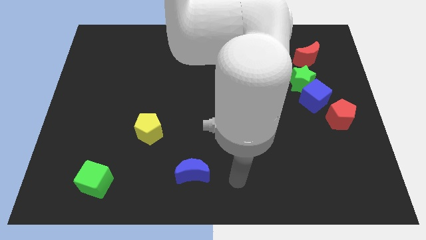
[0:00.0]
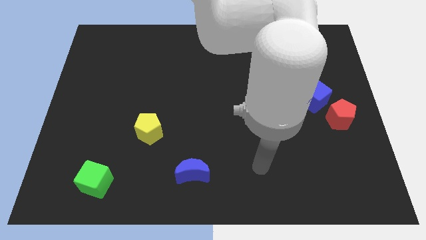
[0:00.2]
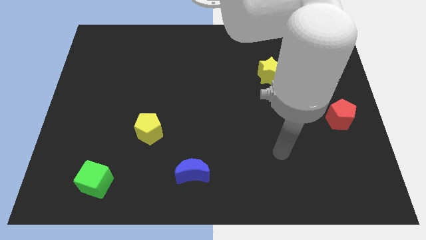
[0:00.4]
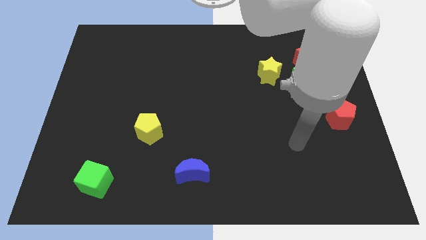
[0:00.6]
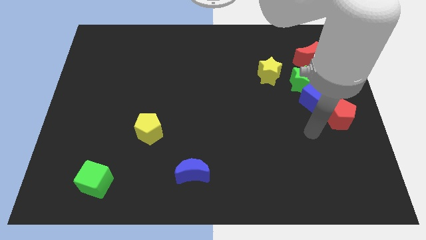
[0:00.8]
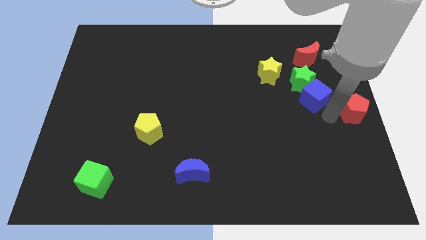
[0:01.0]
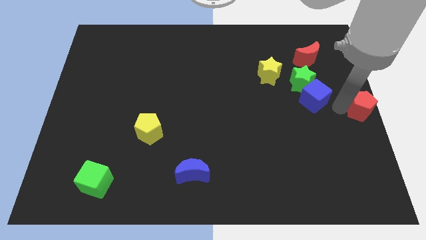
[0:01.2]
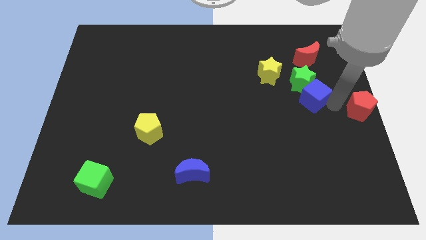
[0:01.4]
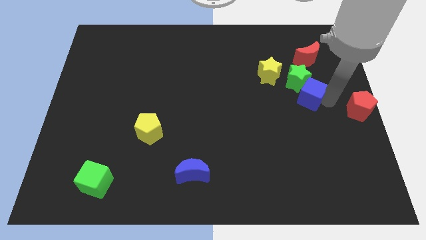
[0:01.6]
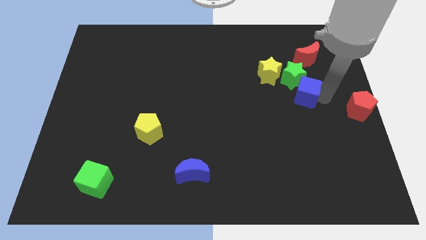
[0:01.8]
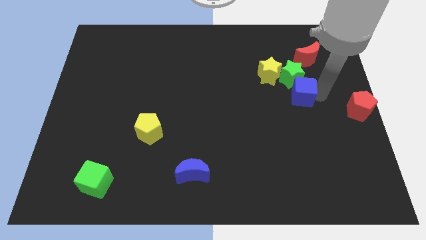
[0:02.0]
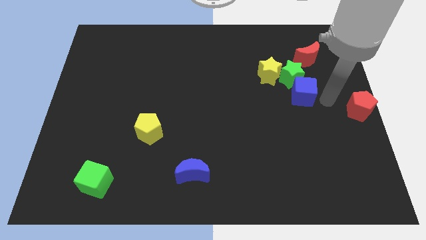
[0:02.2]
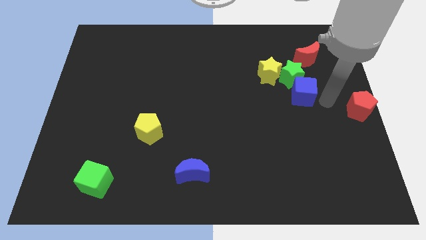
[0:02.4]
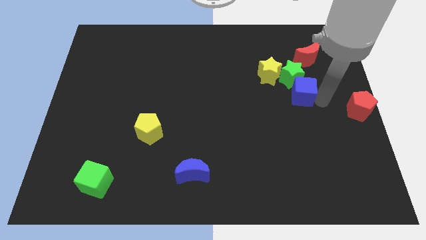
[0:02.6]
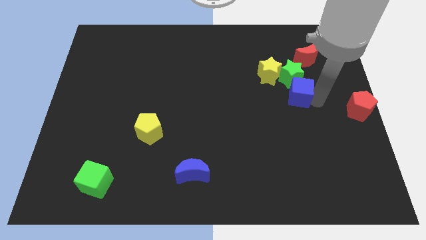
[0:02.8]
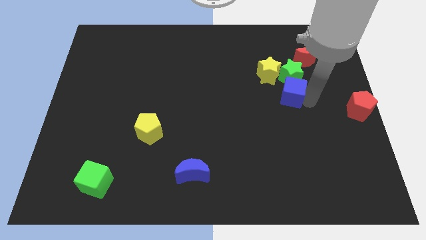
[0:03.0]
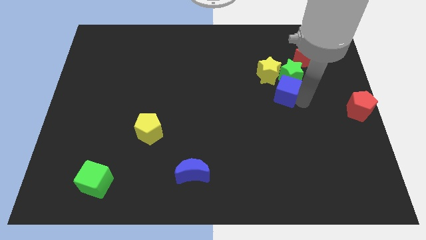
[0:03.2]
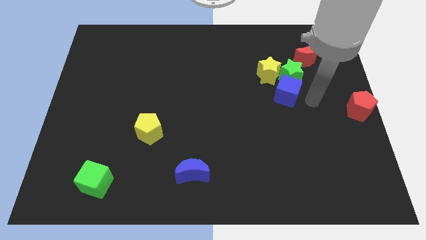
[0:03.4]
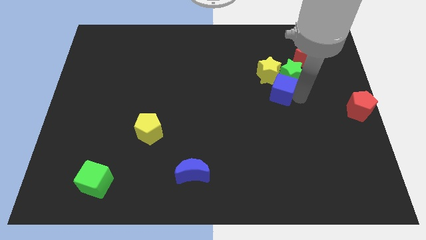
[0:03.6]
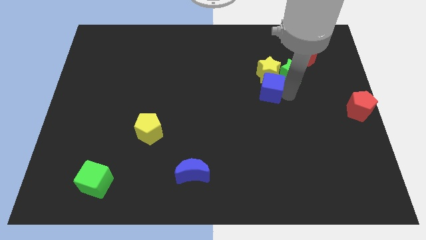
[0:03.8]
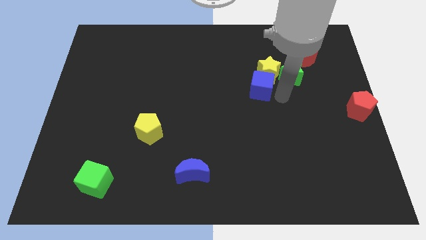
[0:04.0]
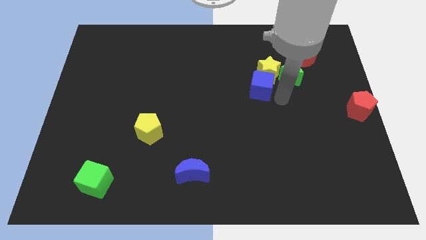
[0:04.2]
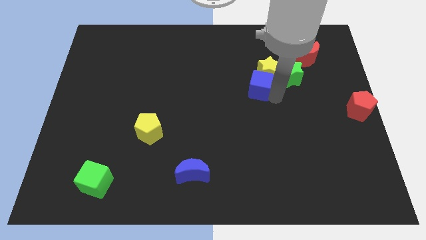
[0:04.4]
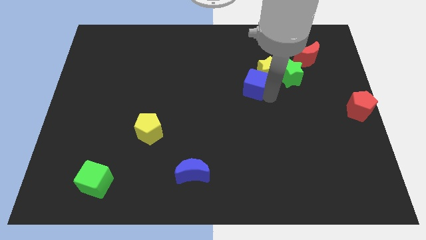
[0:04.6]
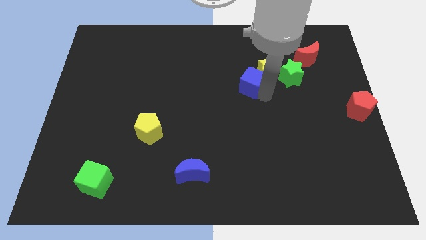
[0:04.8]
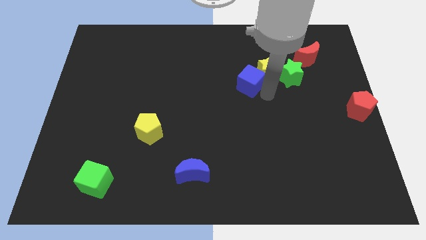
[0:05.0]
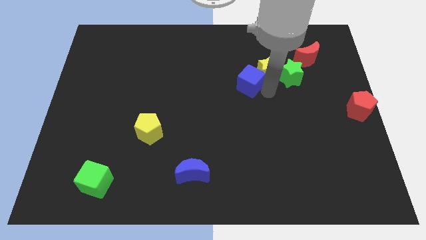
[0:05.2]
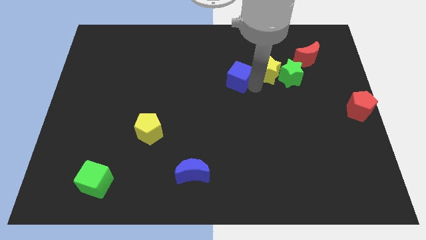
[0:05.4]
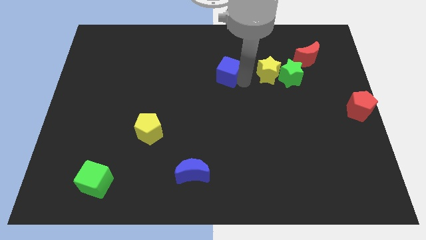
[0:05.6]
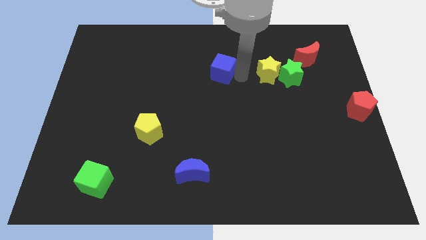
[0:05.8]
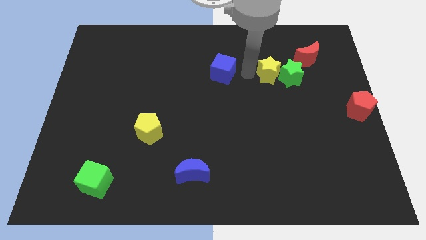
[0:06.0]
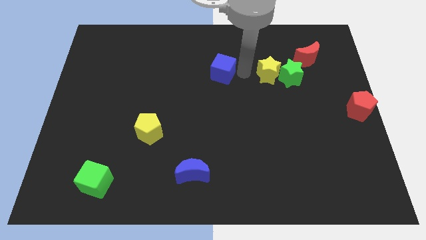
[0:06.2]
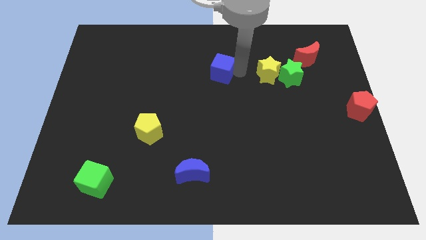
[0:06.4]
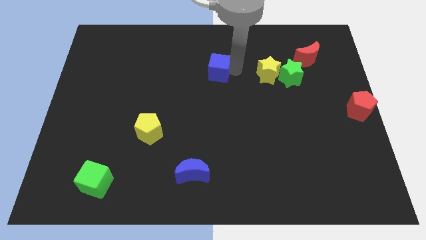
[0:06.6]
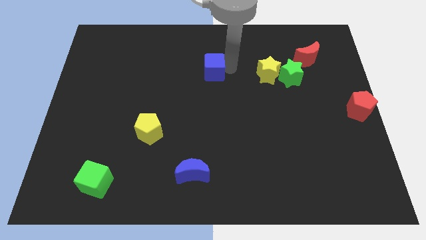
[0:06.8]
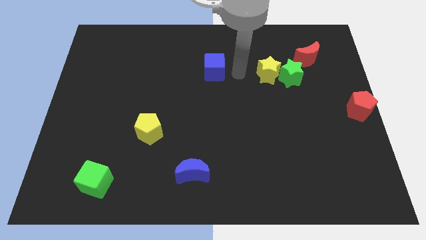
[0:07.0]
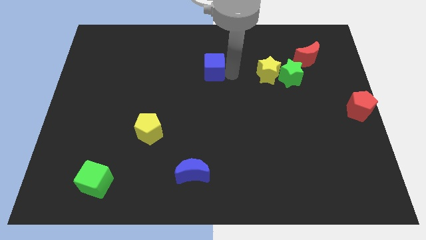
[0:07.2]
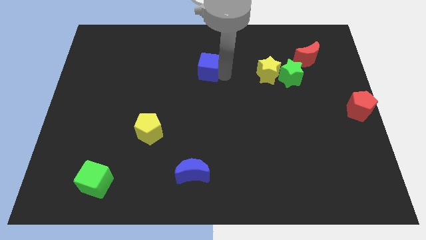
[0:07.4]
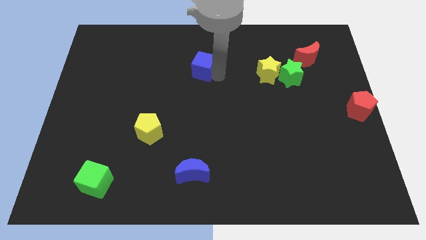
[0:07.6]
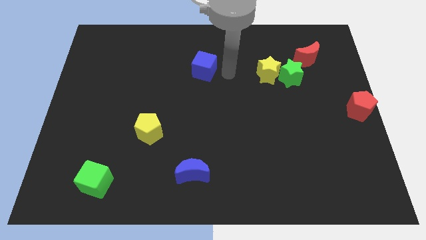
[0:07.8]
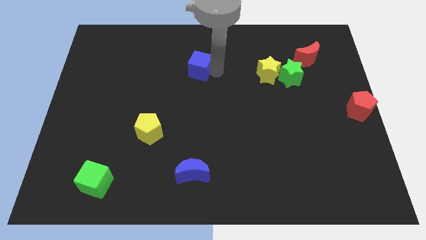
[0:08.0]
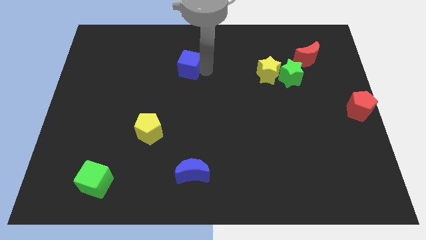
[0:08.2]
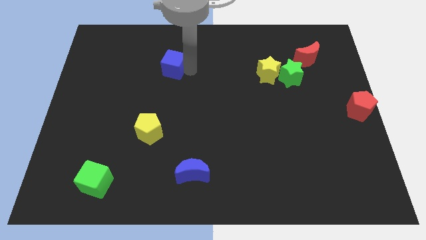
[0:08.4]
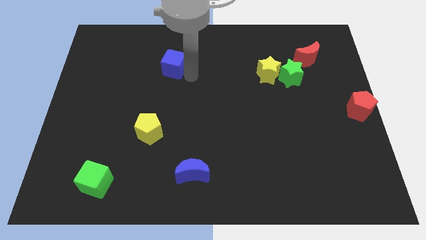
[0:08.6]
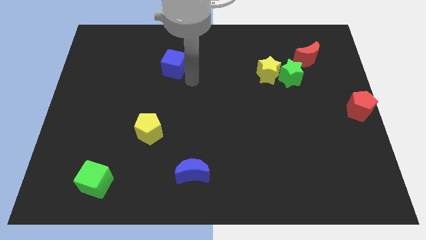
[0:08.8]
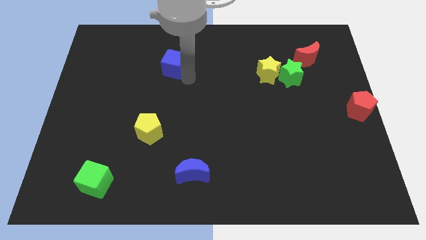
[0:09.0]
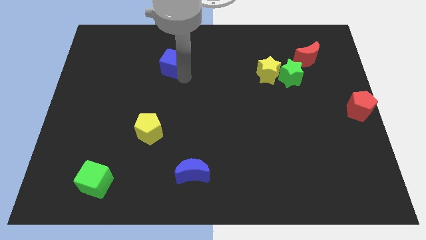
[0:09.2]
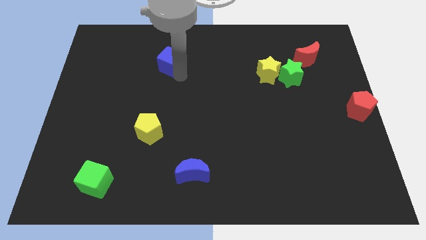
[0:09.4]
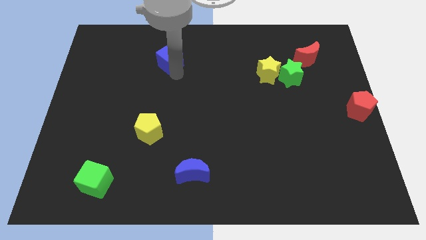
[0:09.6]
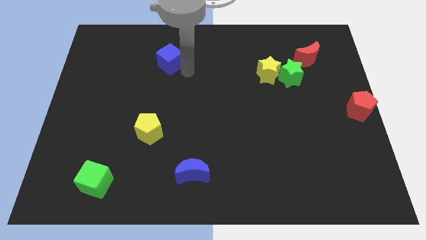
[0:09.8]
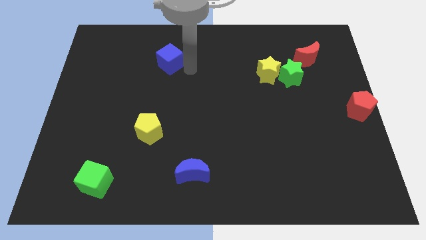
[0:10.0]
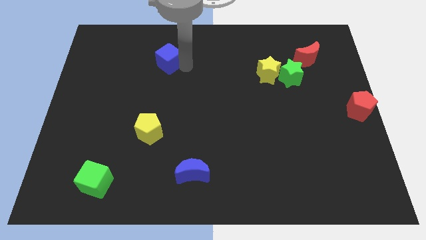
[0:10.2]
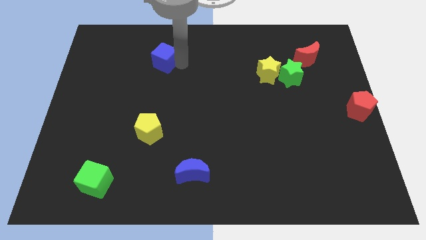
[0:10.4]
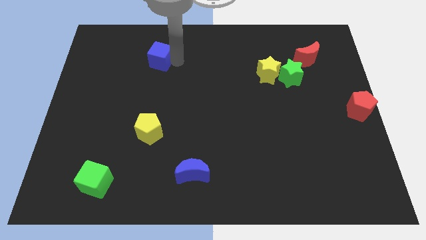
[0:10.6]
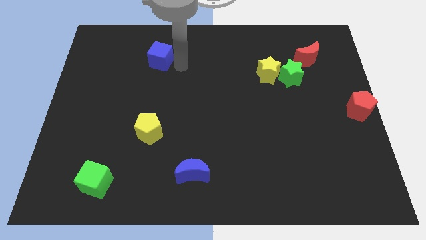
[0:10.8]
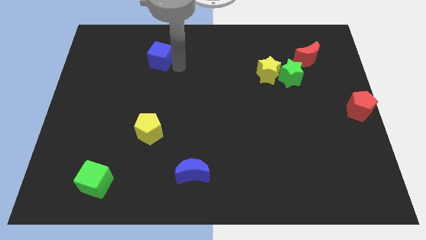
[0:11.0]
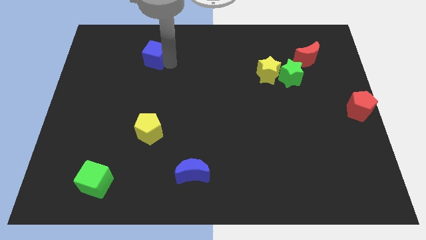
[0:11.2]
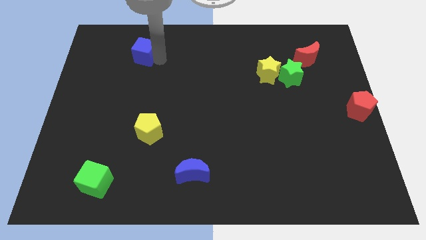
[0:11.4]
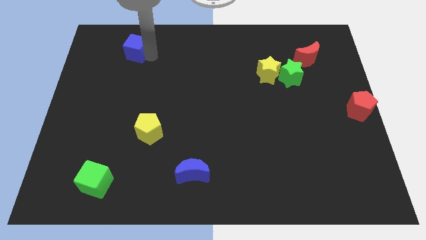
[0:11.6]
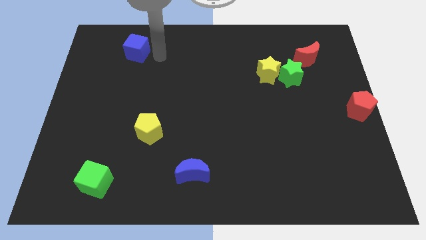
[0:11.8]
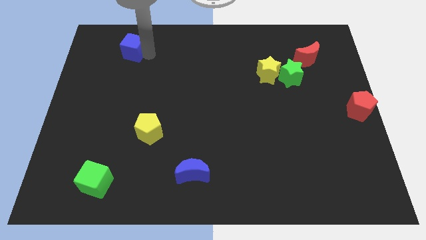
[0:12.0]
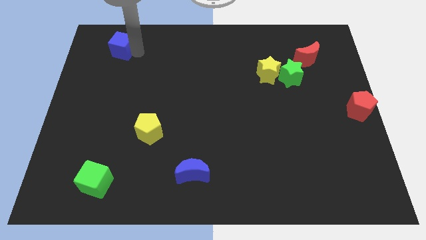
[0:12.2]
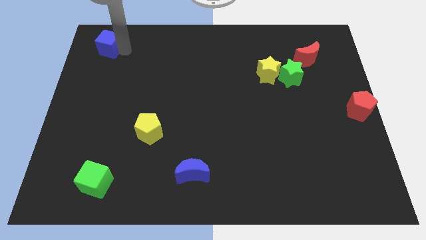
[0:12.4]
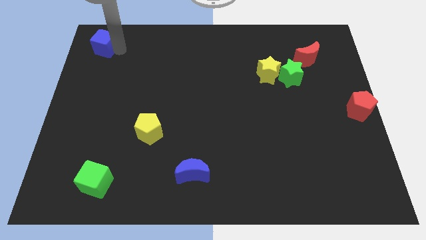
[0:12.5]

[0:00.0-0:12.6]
put the blue cube to the top left of the board
